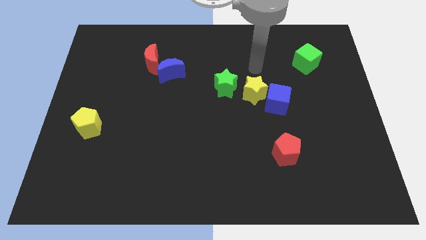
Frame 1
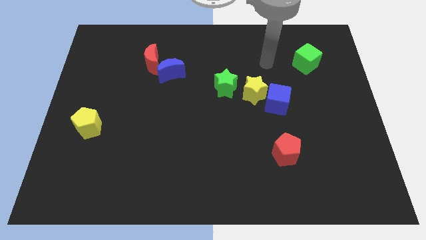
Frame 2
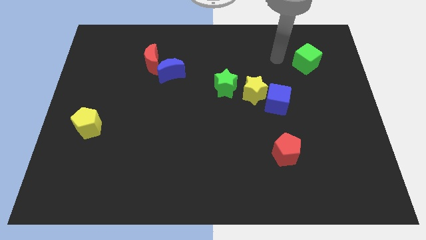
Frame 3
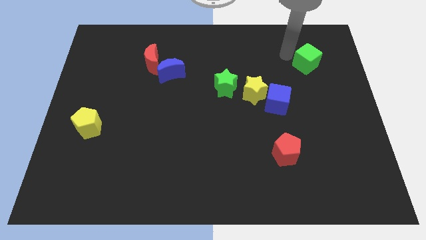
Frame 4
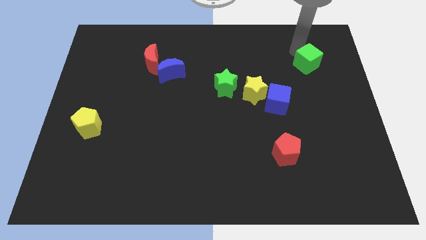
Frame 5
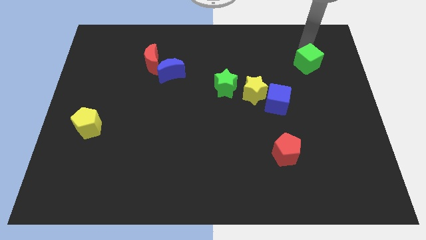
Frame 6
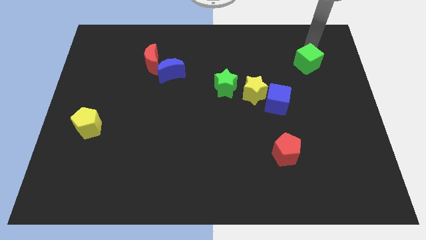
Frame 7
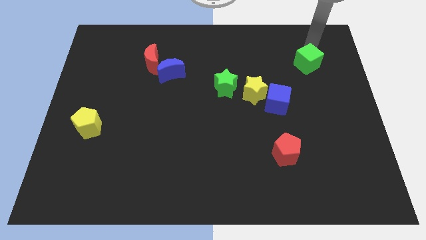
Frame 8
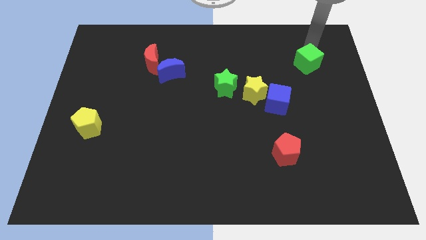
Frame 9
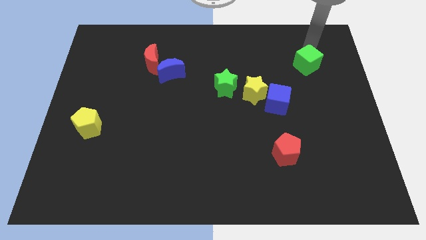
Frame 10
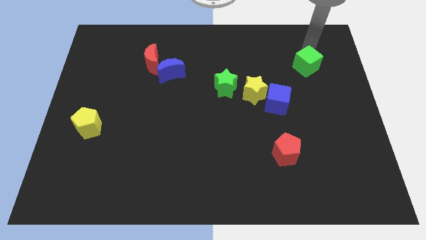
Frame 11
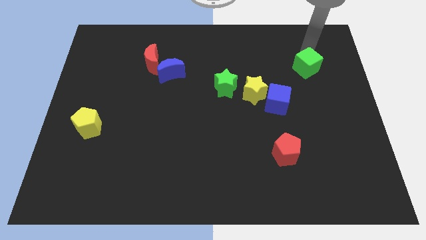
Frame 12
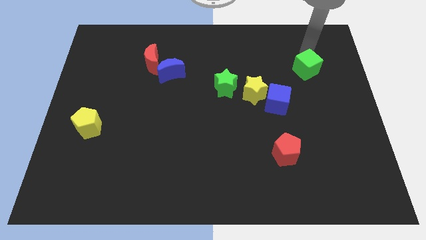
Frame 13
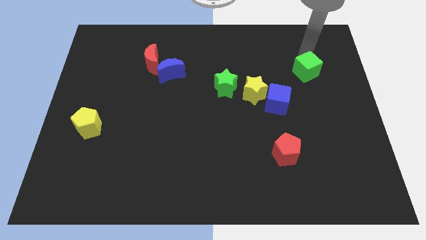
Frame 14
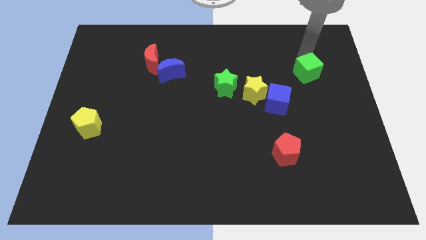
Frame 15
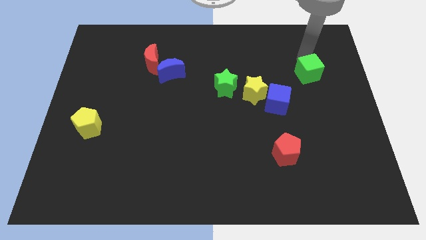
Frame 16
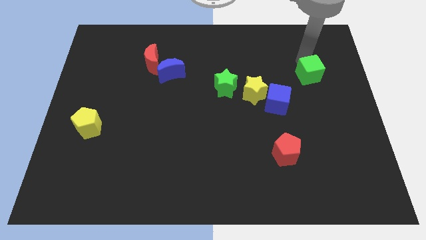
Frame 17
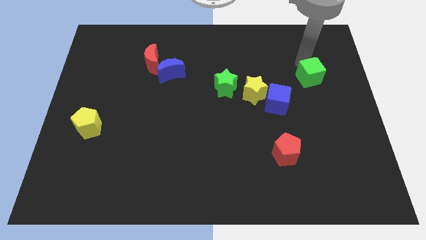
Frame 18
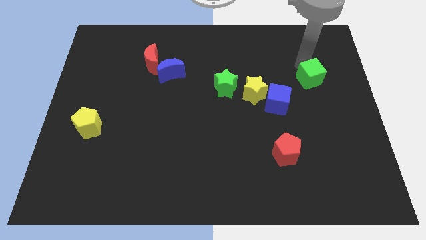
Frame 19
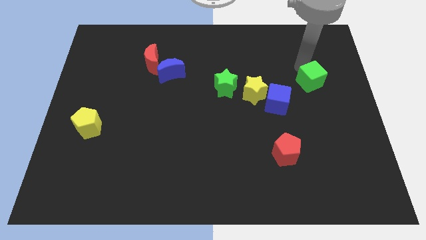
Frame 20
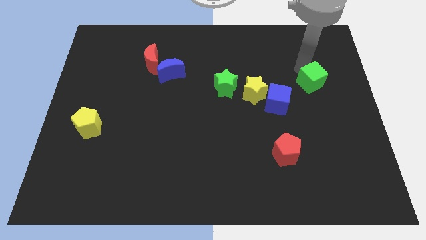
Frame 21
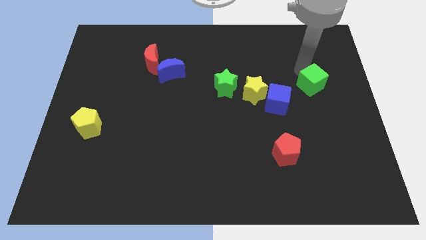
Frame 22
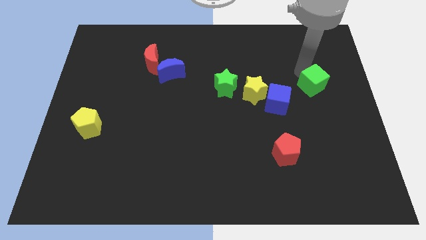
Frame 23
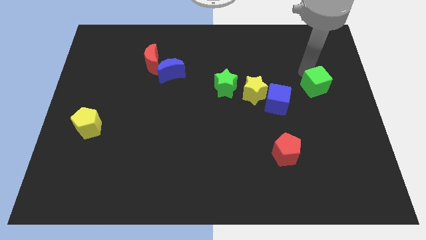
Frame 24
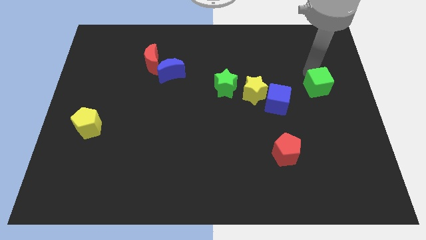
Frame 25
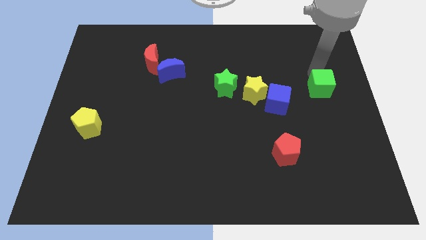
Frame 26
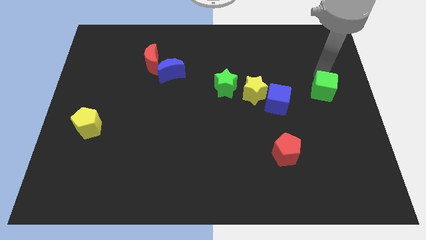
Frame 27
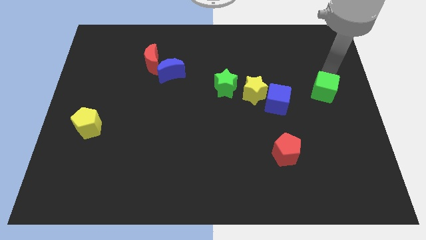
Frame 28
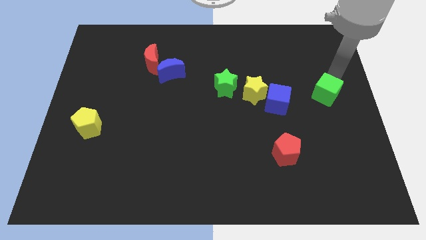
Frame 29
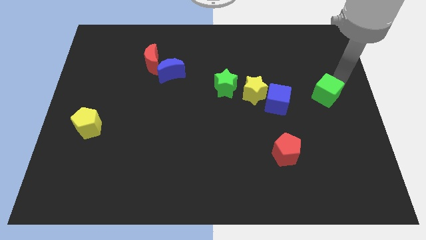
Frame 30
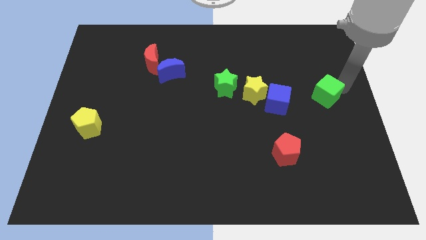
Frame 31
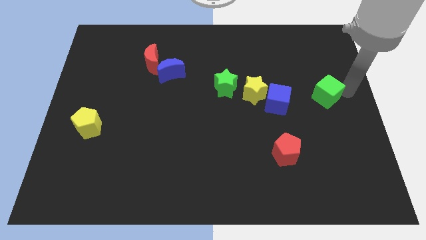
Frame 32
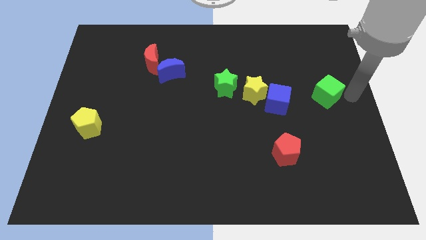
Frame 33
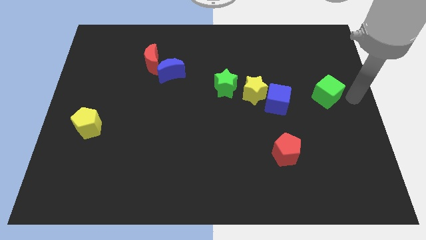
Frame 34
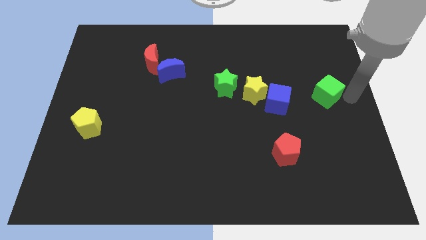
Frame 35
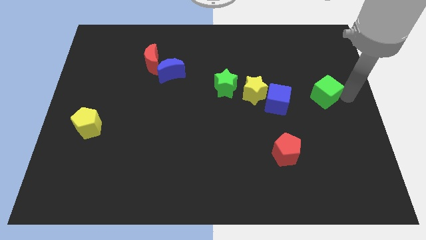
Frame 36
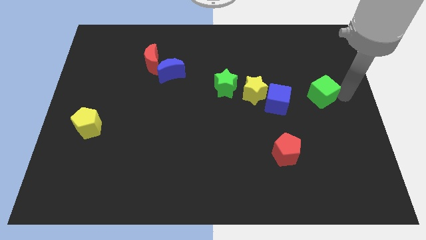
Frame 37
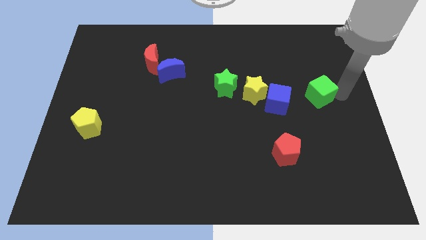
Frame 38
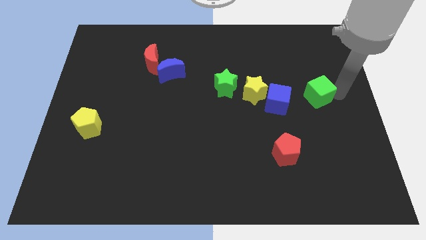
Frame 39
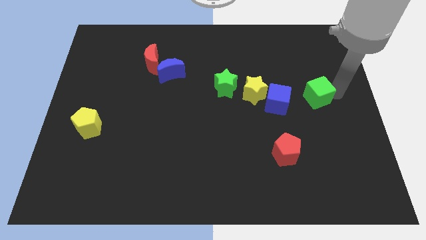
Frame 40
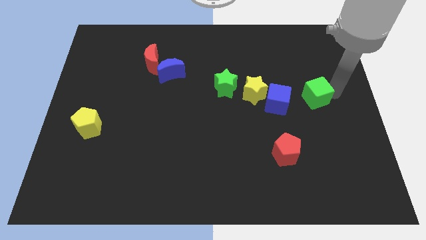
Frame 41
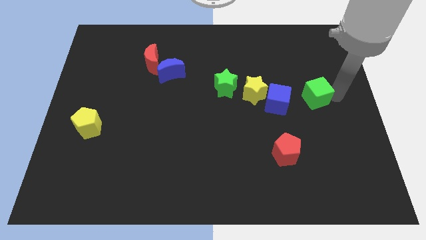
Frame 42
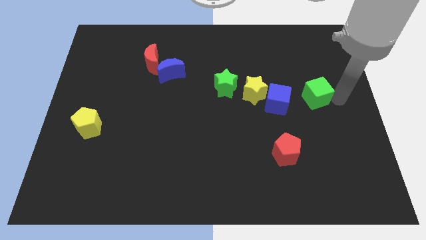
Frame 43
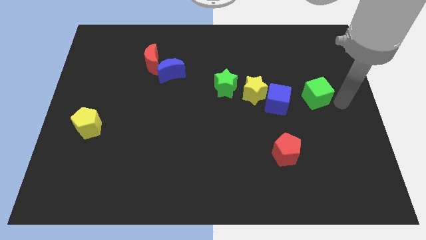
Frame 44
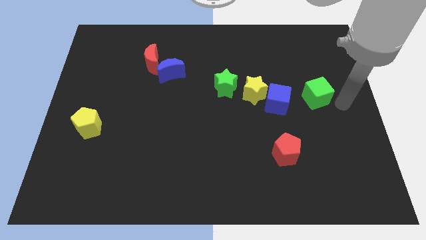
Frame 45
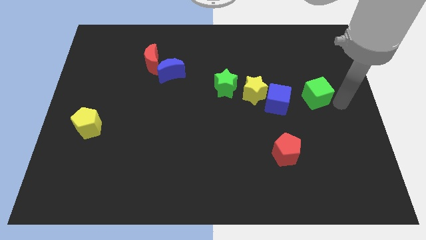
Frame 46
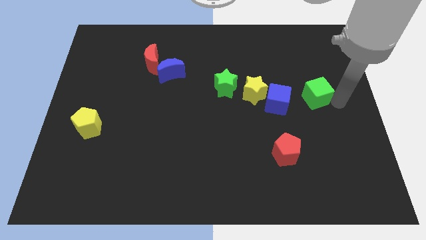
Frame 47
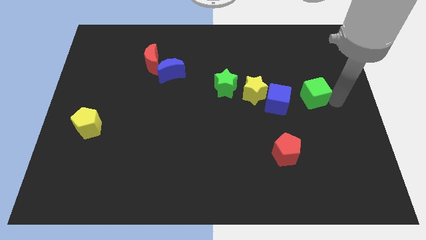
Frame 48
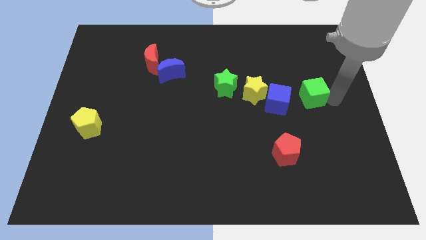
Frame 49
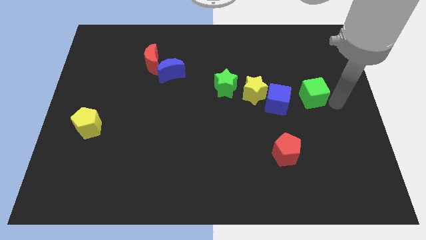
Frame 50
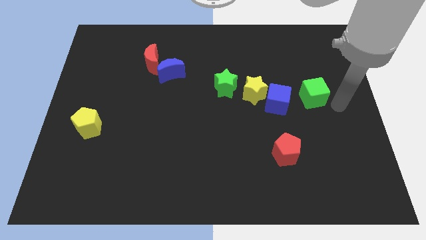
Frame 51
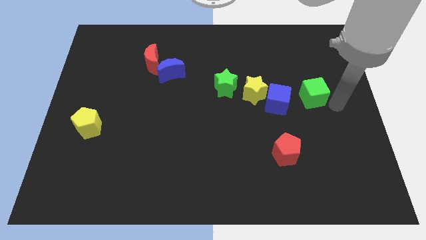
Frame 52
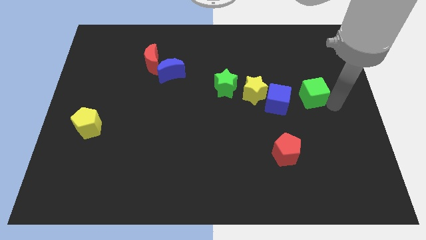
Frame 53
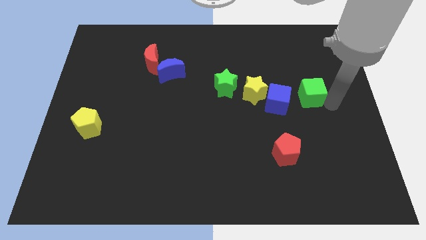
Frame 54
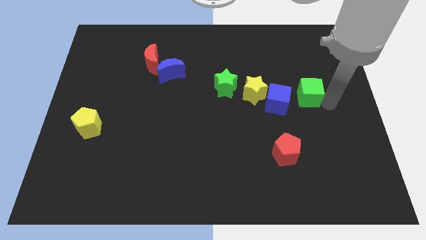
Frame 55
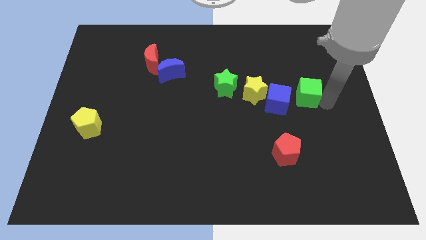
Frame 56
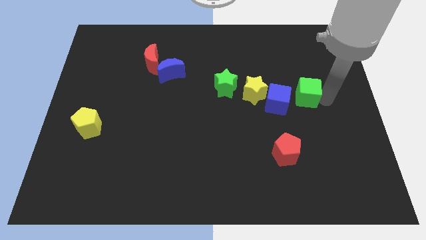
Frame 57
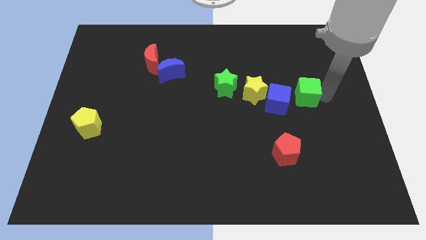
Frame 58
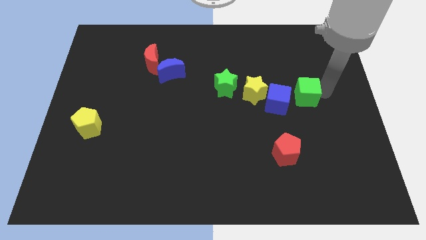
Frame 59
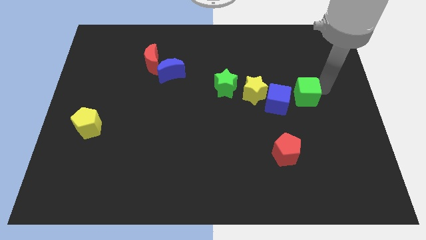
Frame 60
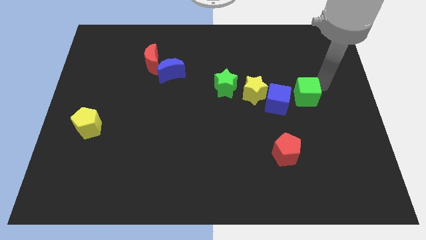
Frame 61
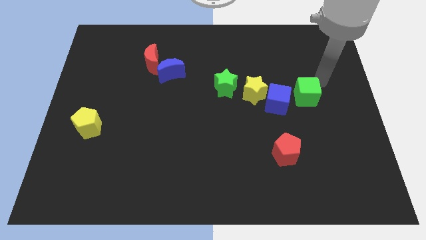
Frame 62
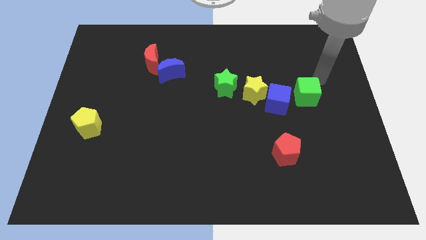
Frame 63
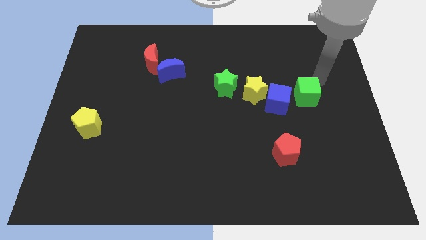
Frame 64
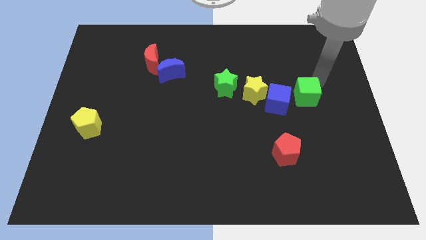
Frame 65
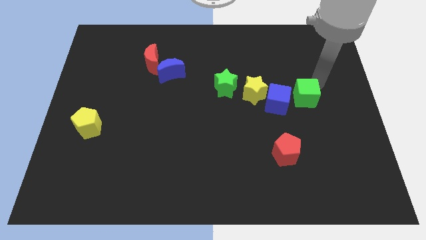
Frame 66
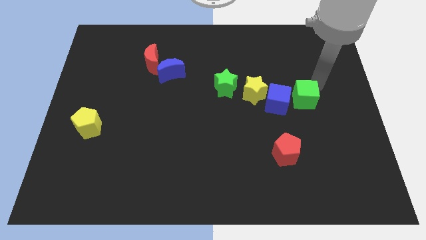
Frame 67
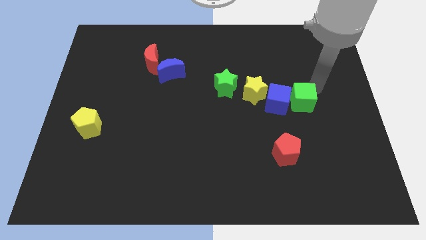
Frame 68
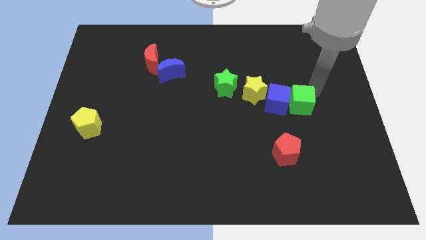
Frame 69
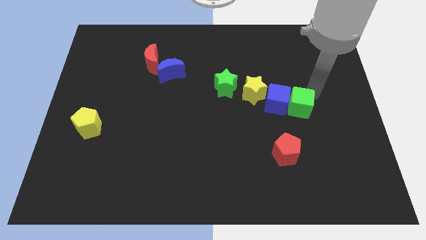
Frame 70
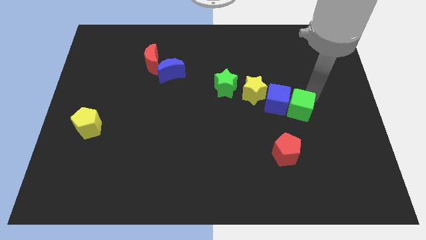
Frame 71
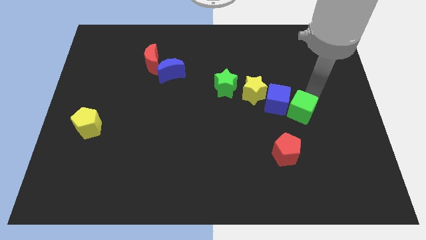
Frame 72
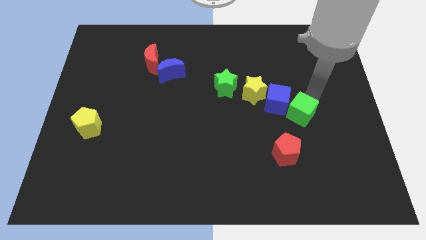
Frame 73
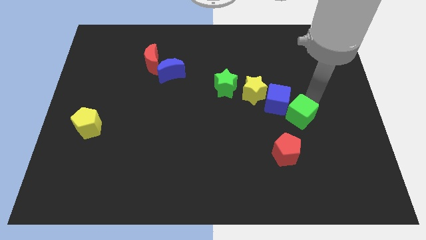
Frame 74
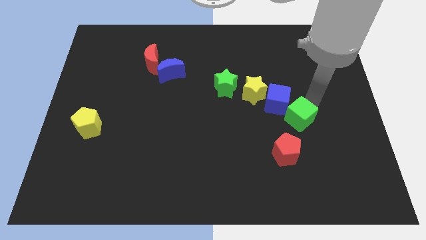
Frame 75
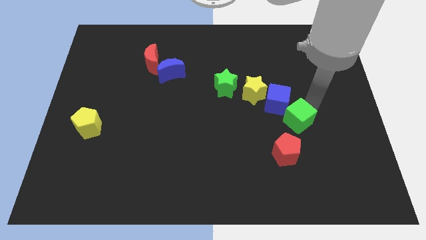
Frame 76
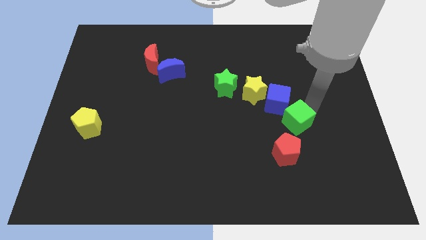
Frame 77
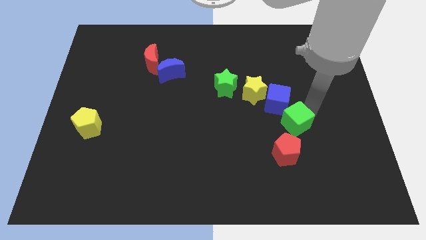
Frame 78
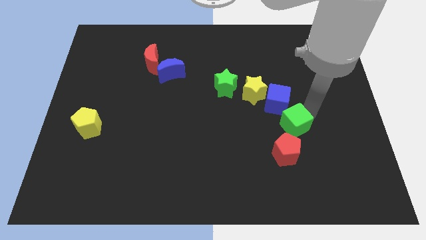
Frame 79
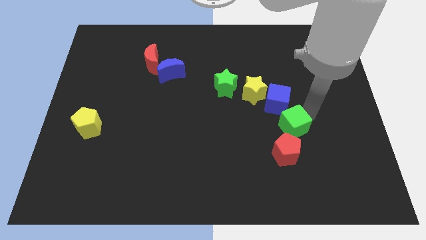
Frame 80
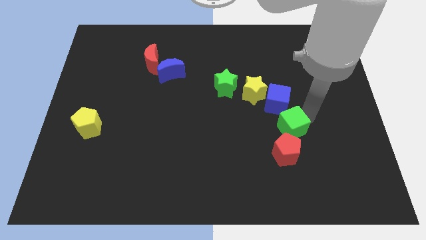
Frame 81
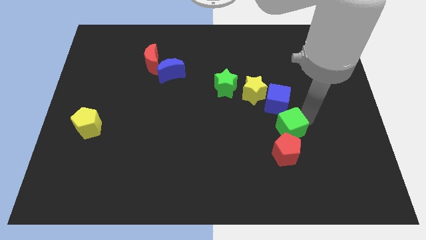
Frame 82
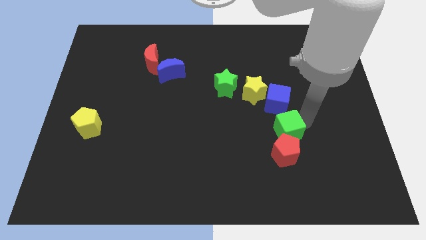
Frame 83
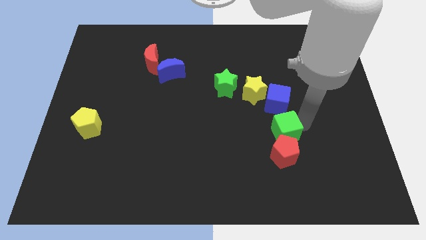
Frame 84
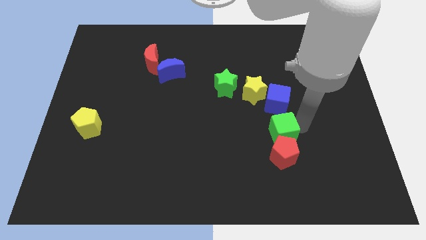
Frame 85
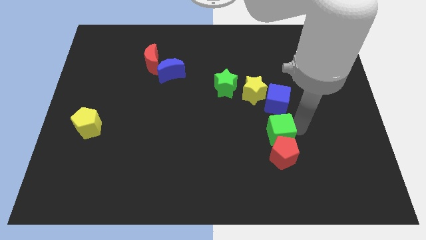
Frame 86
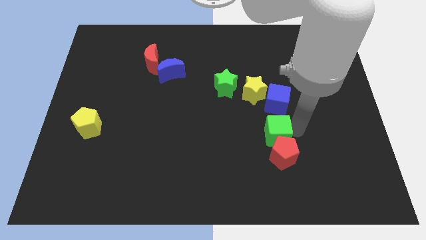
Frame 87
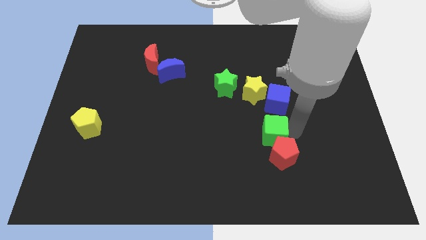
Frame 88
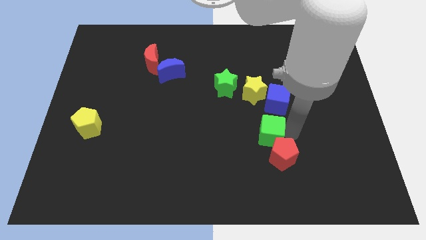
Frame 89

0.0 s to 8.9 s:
slide the green cube to the bottom left of the blue cube
